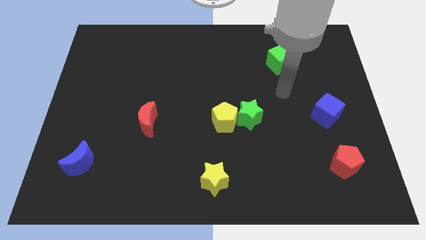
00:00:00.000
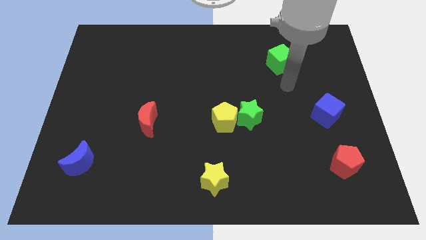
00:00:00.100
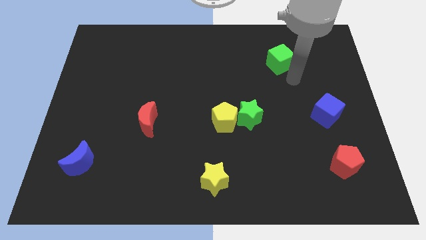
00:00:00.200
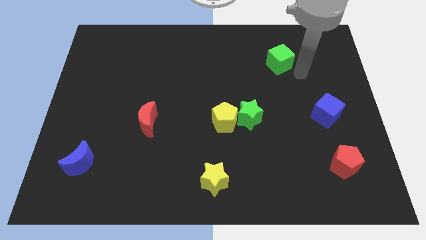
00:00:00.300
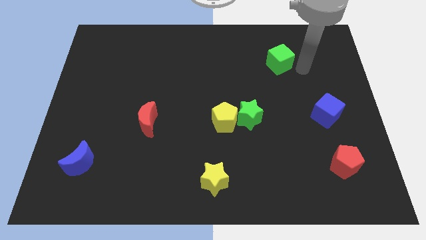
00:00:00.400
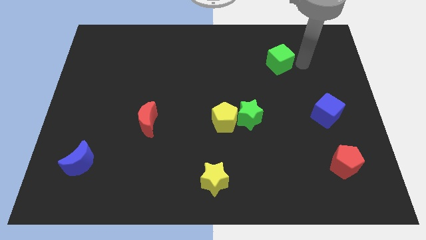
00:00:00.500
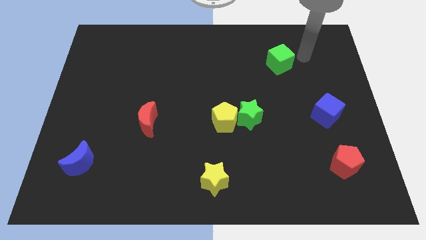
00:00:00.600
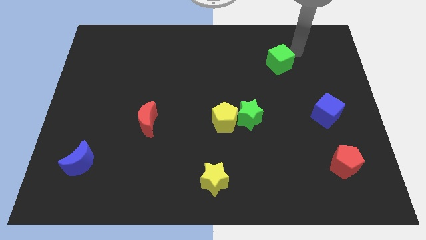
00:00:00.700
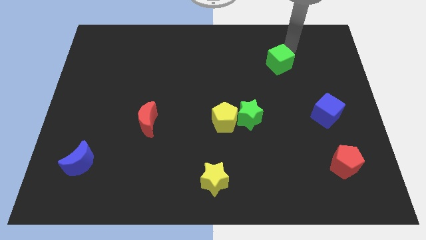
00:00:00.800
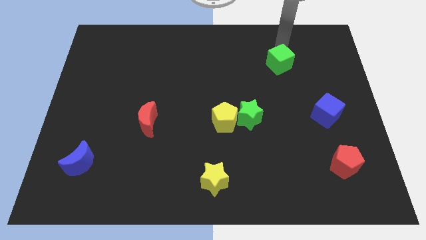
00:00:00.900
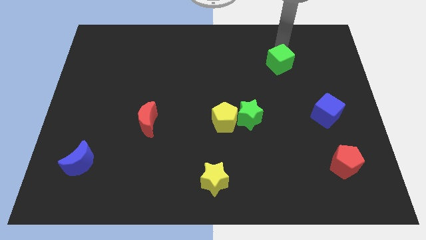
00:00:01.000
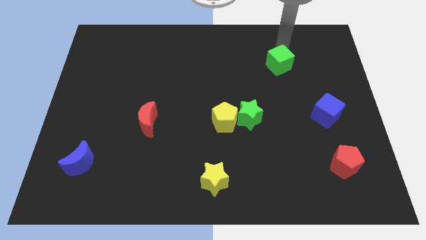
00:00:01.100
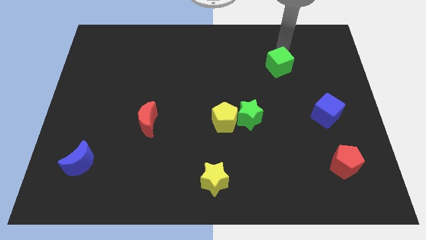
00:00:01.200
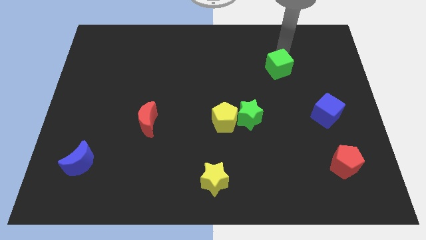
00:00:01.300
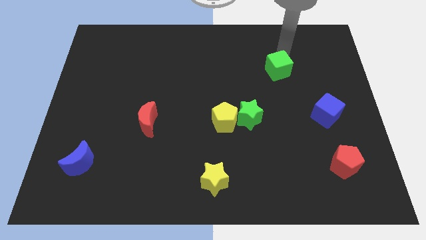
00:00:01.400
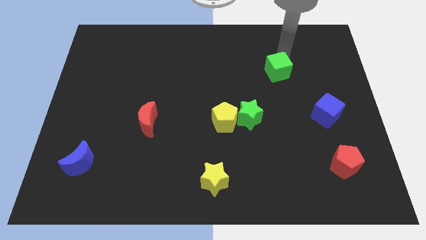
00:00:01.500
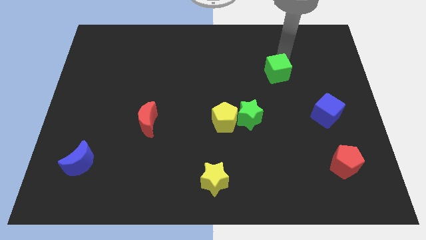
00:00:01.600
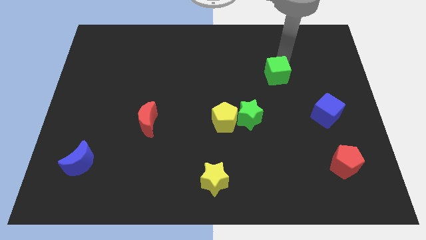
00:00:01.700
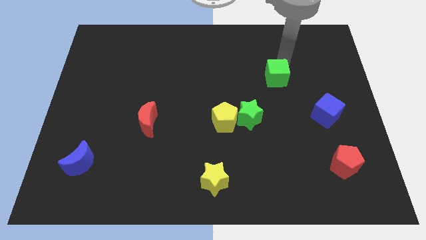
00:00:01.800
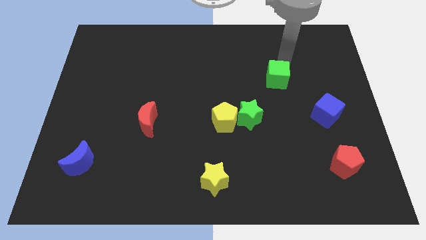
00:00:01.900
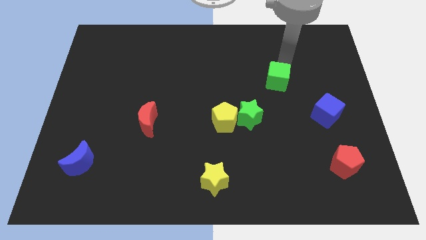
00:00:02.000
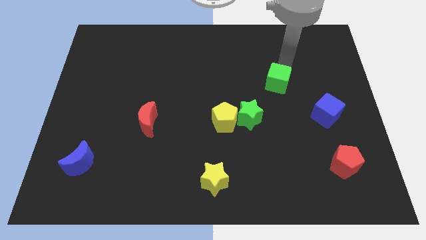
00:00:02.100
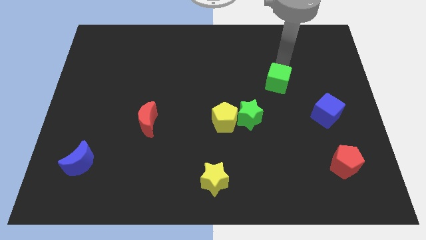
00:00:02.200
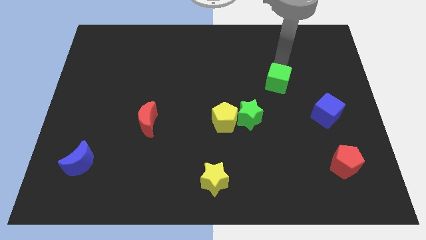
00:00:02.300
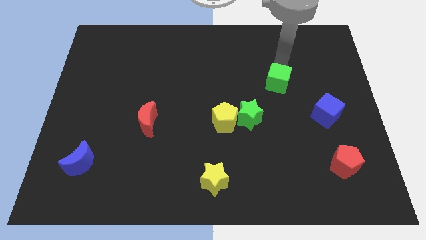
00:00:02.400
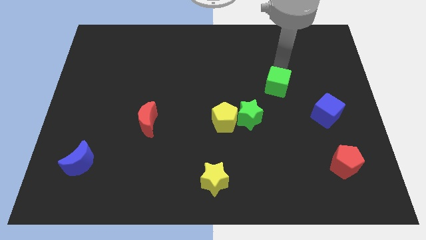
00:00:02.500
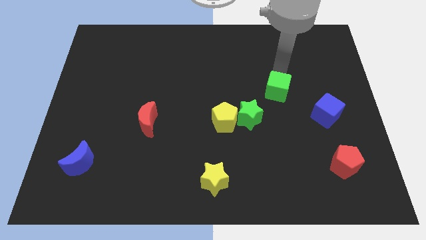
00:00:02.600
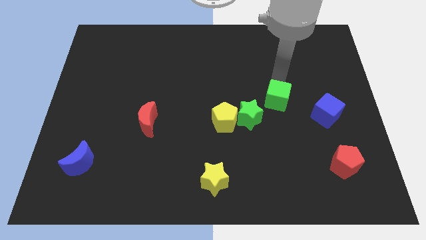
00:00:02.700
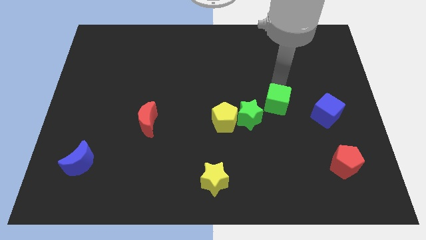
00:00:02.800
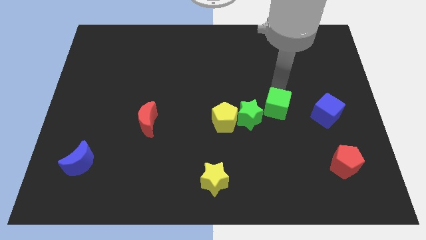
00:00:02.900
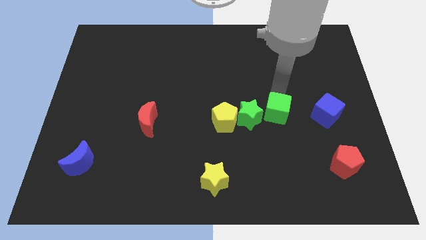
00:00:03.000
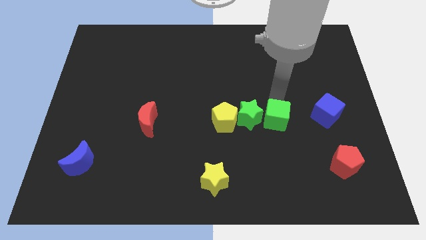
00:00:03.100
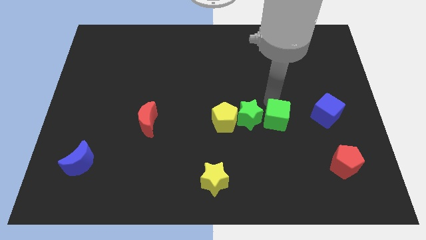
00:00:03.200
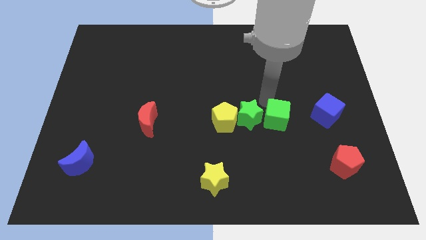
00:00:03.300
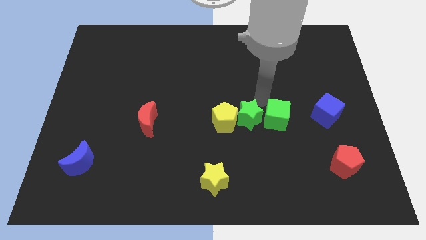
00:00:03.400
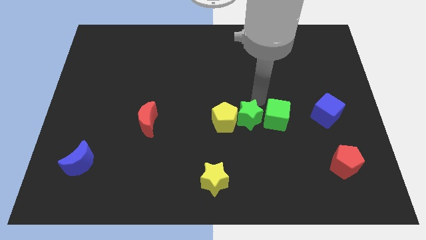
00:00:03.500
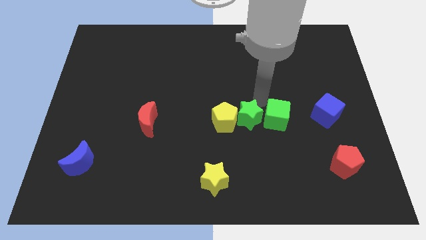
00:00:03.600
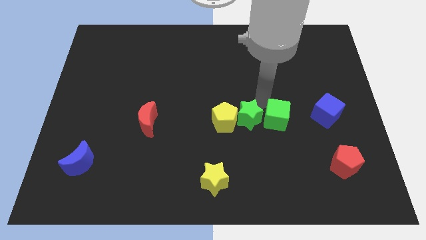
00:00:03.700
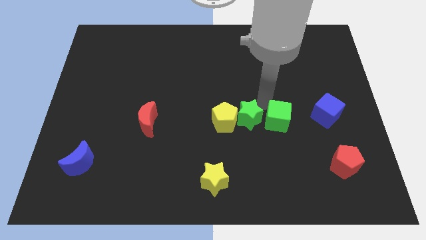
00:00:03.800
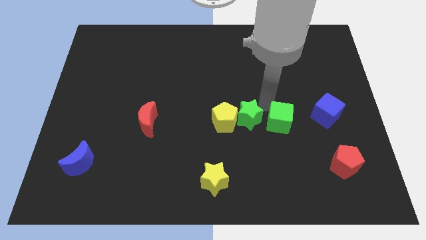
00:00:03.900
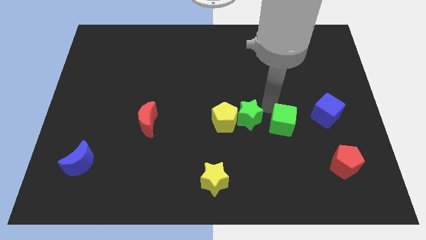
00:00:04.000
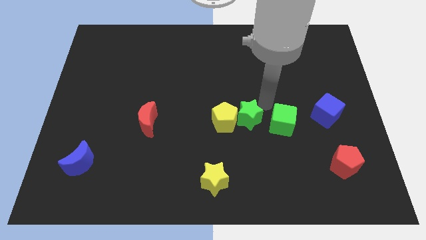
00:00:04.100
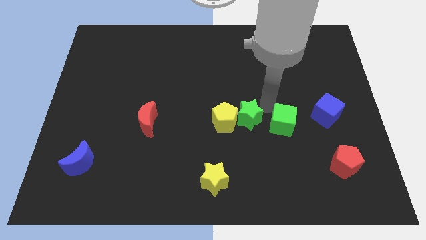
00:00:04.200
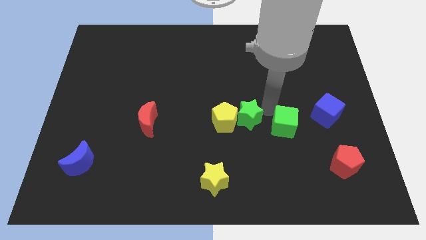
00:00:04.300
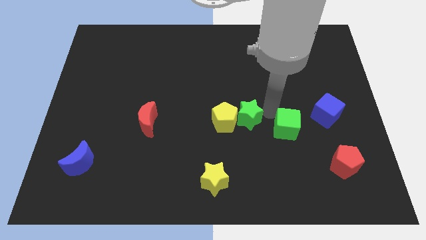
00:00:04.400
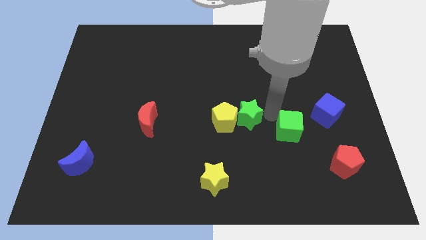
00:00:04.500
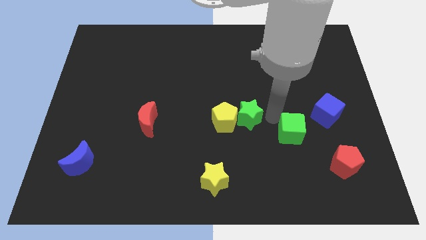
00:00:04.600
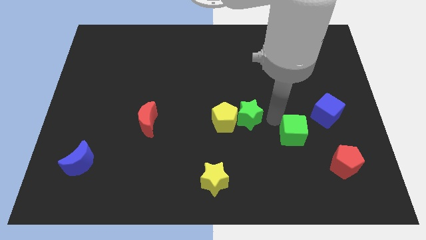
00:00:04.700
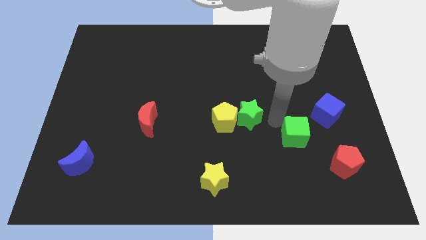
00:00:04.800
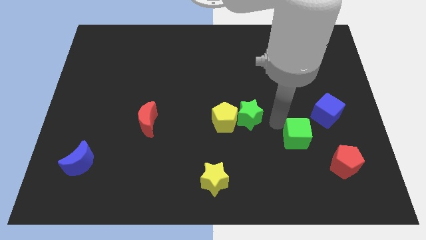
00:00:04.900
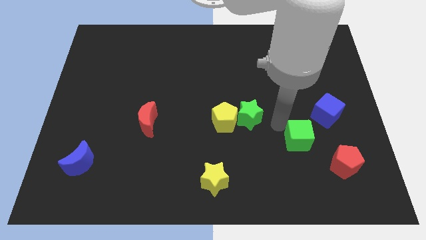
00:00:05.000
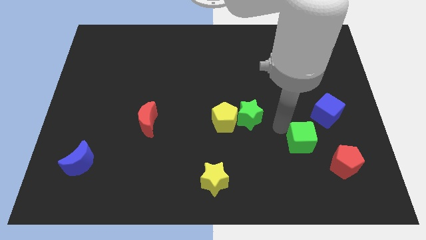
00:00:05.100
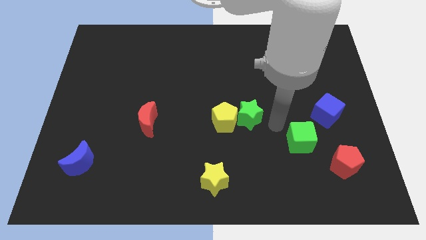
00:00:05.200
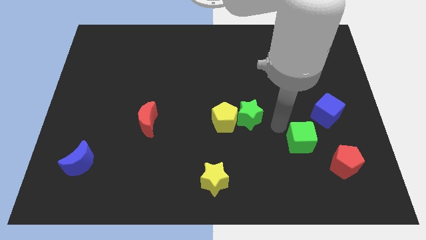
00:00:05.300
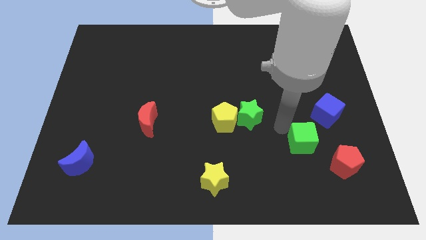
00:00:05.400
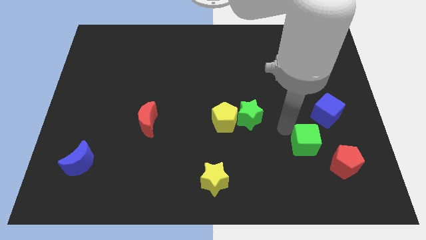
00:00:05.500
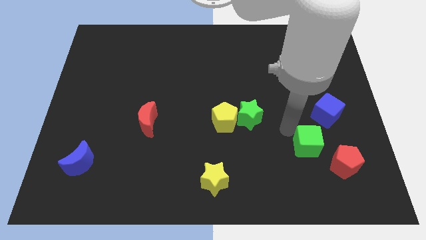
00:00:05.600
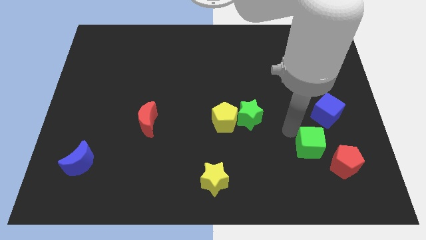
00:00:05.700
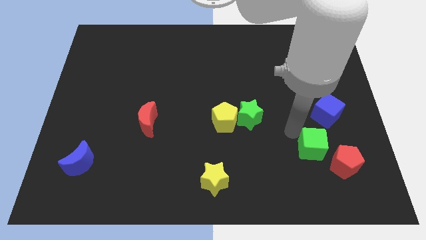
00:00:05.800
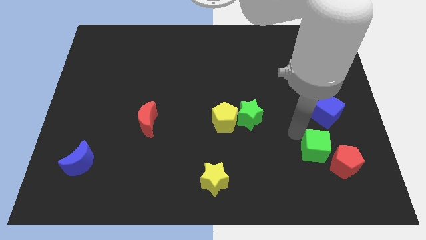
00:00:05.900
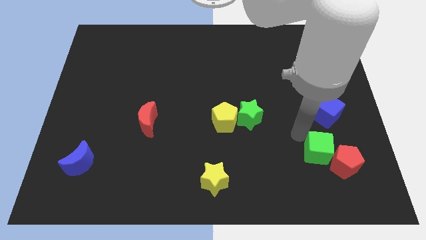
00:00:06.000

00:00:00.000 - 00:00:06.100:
slide the green cube next to the red pentagon

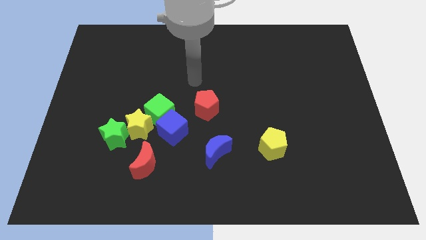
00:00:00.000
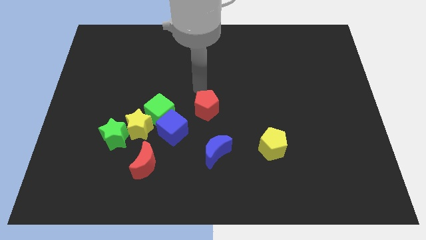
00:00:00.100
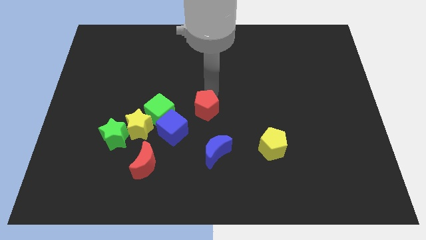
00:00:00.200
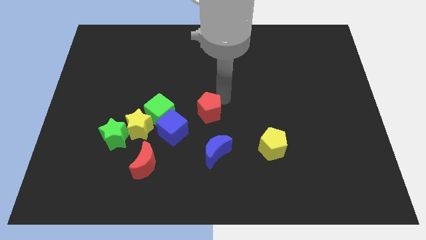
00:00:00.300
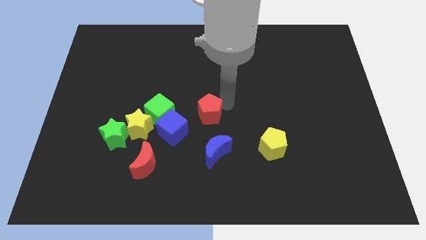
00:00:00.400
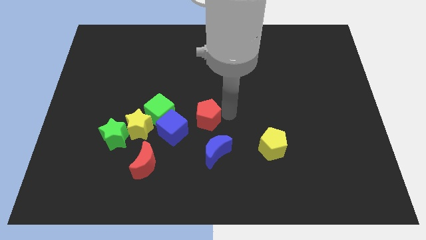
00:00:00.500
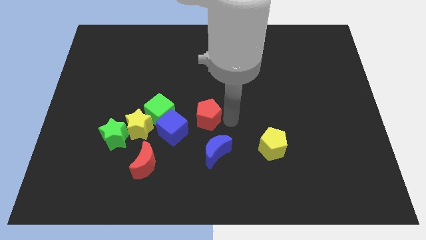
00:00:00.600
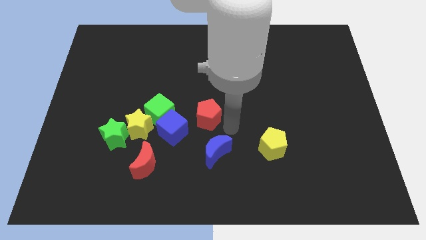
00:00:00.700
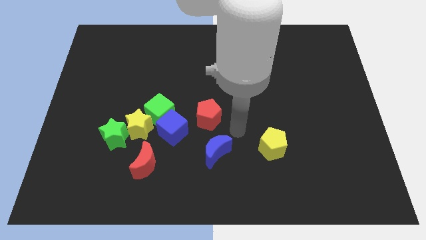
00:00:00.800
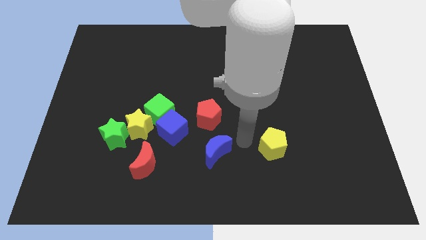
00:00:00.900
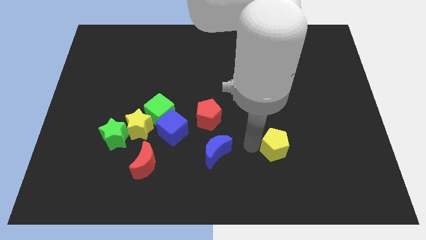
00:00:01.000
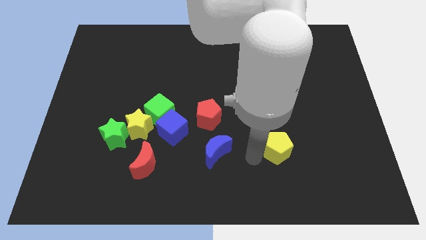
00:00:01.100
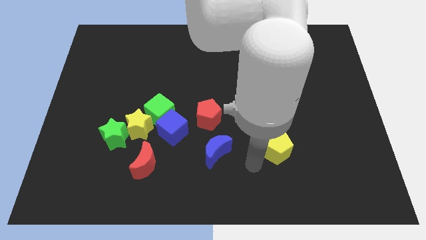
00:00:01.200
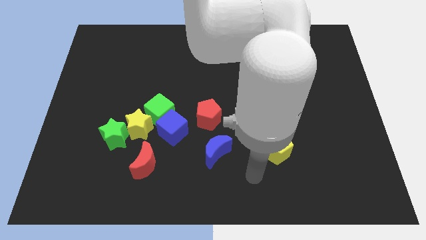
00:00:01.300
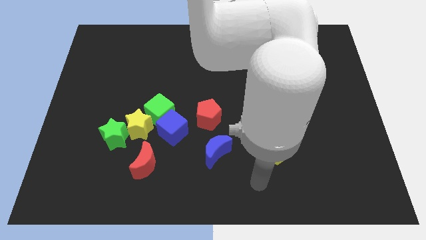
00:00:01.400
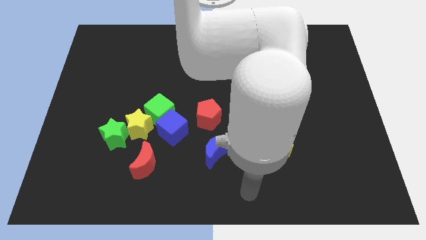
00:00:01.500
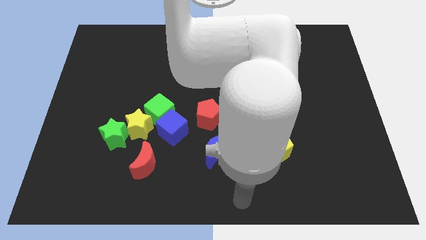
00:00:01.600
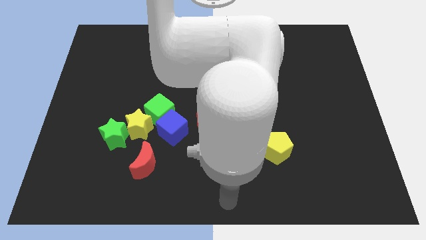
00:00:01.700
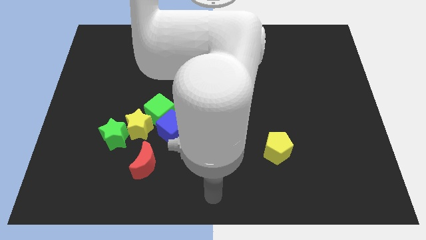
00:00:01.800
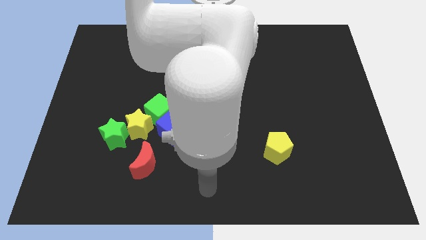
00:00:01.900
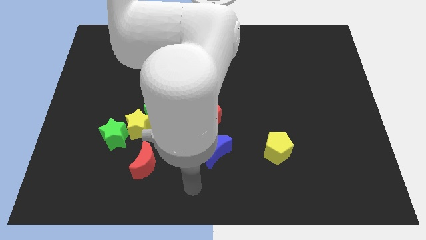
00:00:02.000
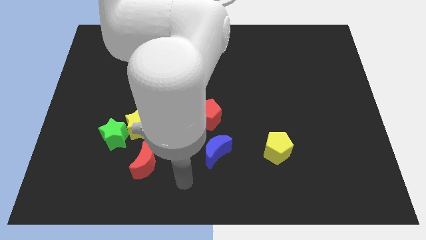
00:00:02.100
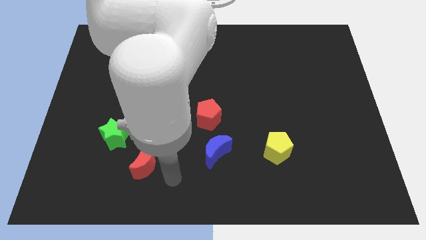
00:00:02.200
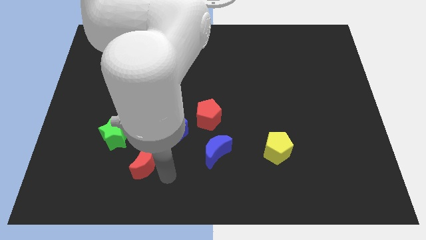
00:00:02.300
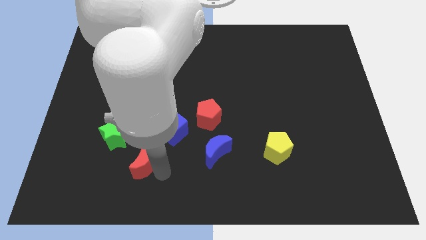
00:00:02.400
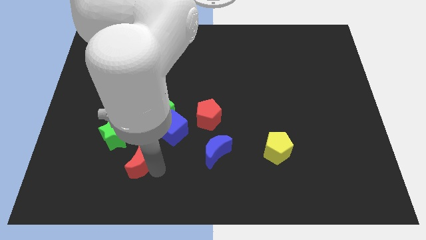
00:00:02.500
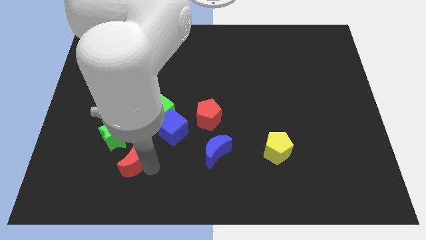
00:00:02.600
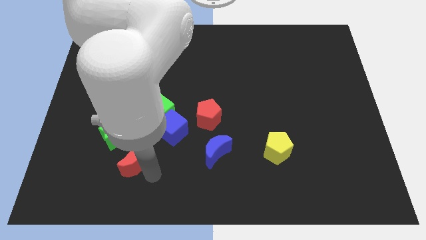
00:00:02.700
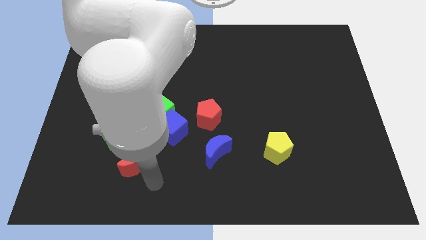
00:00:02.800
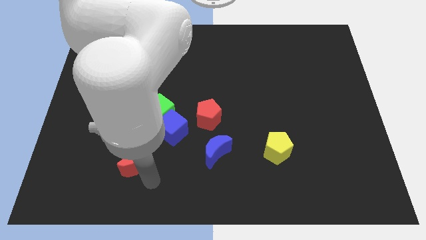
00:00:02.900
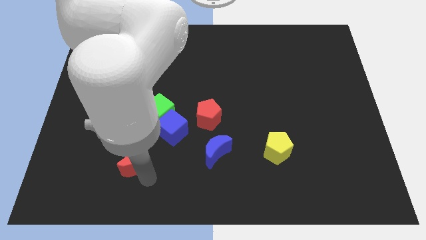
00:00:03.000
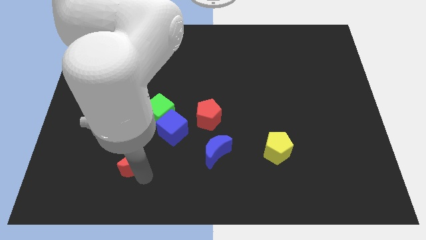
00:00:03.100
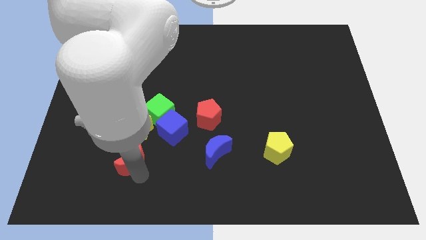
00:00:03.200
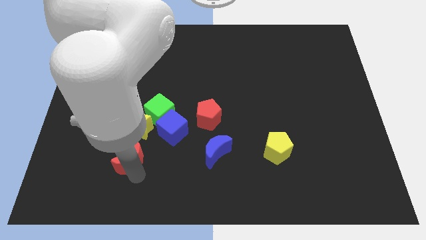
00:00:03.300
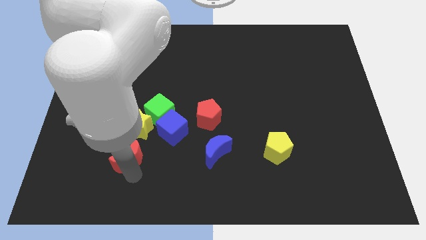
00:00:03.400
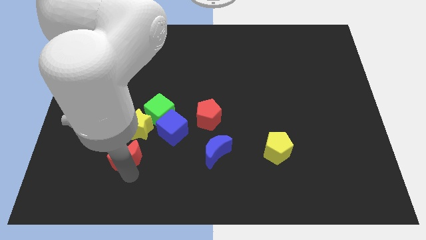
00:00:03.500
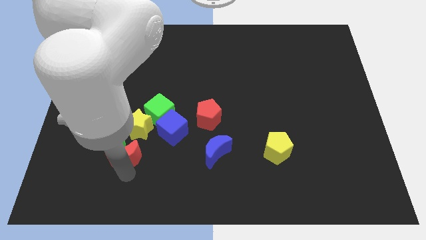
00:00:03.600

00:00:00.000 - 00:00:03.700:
move the red moon close to the green star
